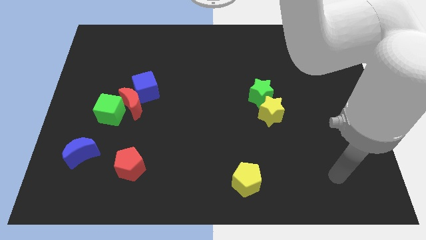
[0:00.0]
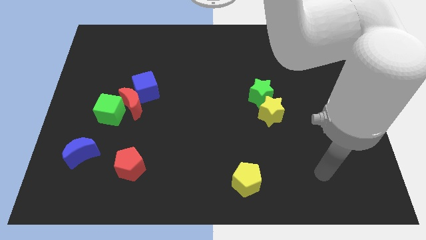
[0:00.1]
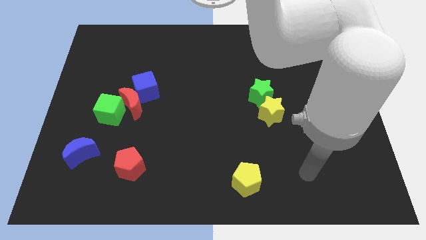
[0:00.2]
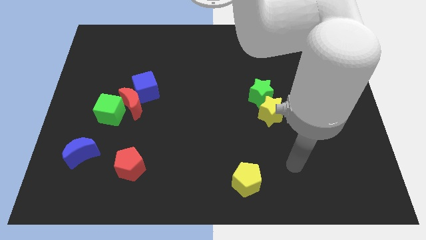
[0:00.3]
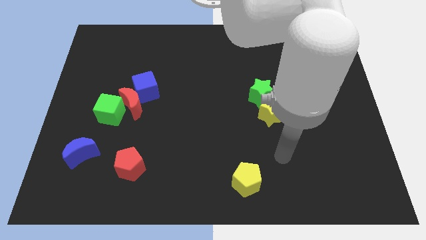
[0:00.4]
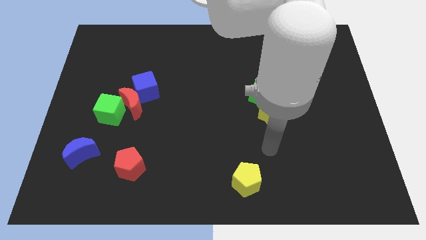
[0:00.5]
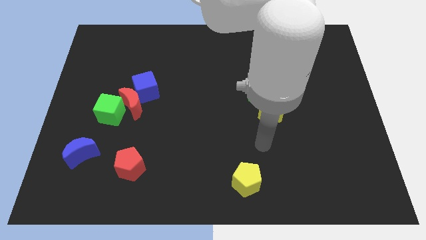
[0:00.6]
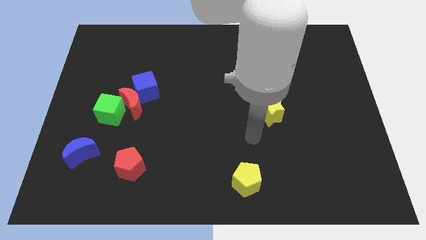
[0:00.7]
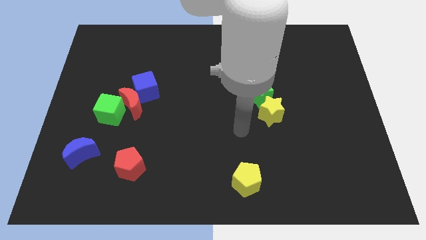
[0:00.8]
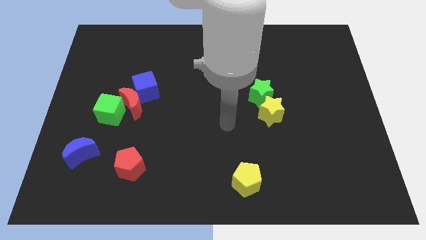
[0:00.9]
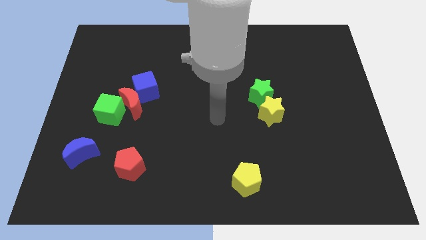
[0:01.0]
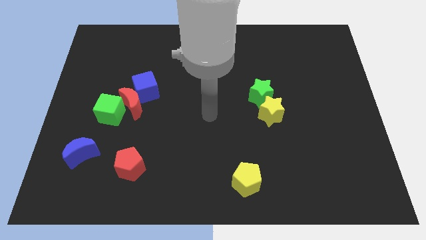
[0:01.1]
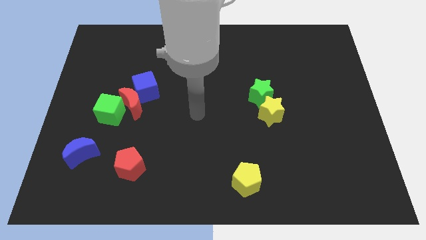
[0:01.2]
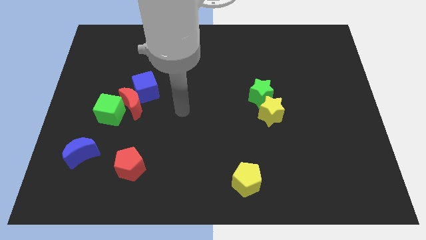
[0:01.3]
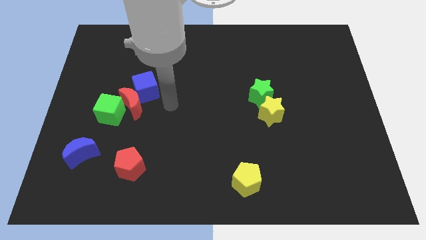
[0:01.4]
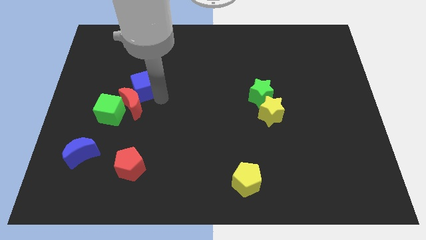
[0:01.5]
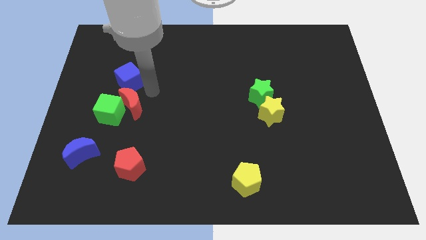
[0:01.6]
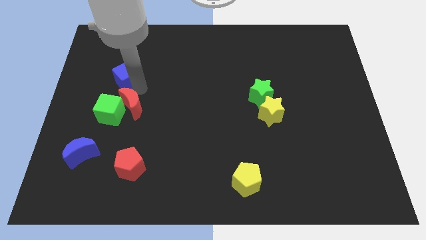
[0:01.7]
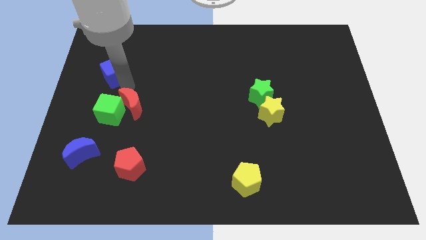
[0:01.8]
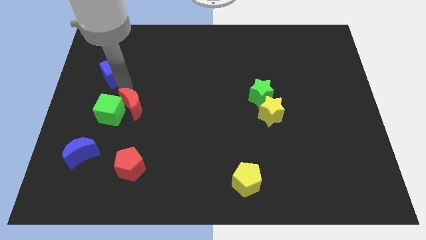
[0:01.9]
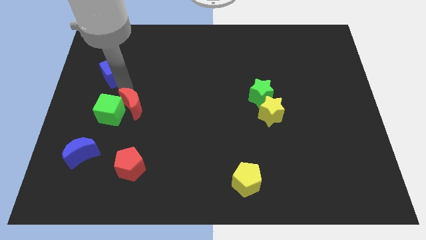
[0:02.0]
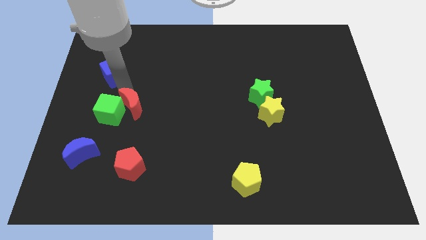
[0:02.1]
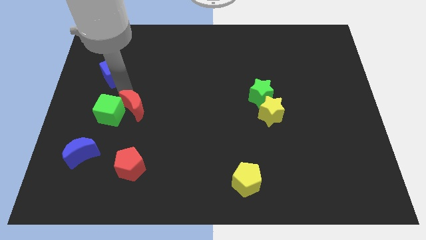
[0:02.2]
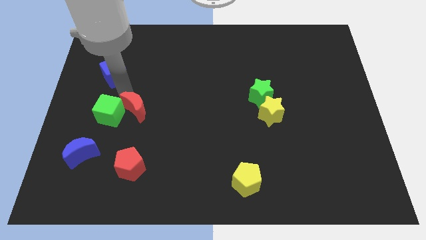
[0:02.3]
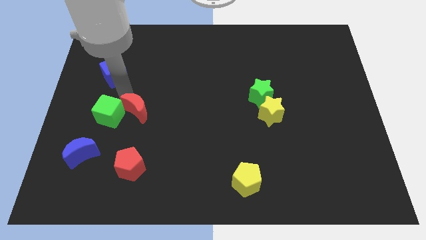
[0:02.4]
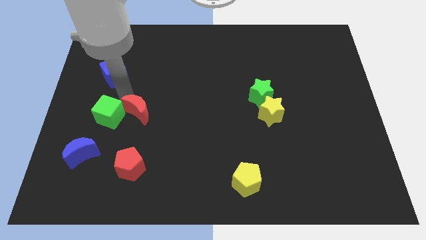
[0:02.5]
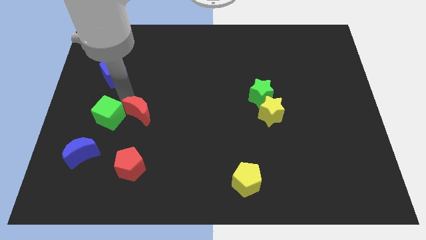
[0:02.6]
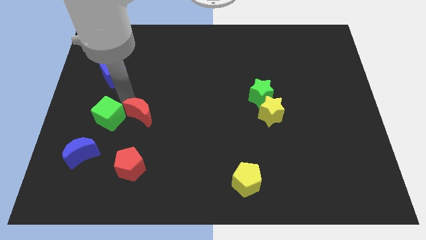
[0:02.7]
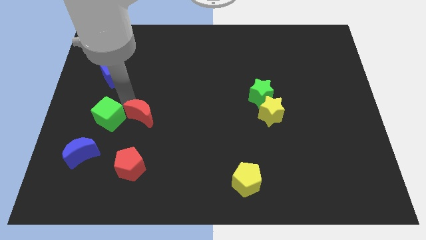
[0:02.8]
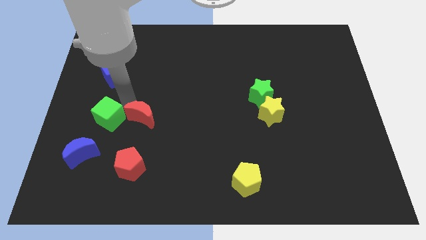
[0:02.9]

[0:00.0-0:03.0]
move the red moon away from the blue cube and green cube

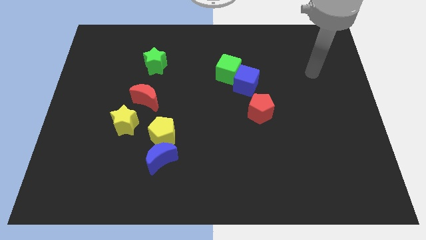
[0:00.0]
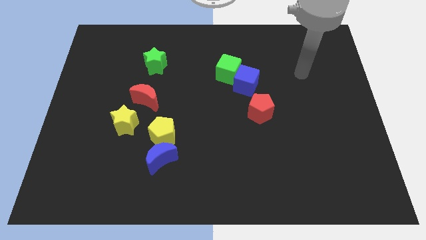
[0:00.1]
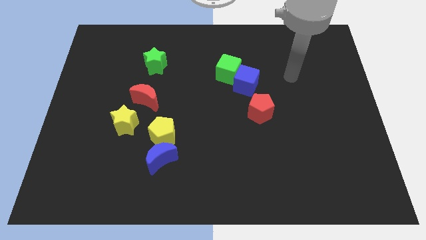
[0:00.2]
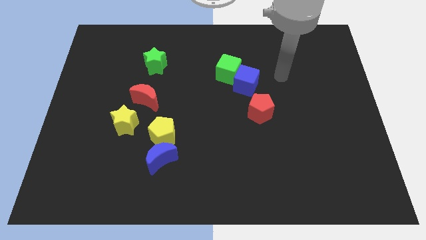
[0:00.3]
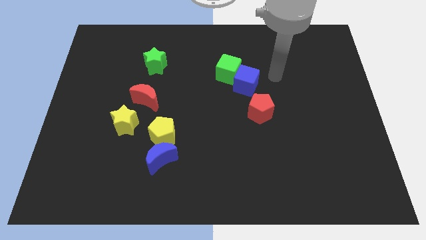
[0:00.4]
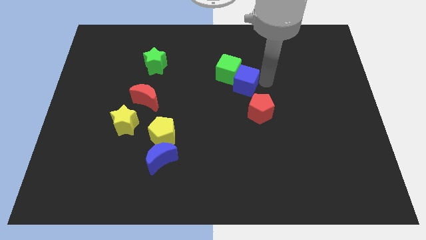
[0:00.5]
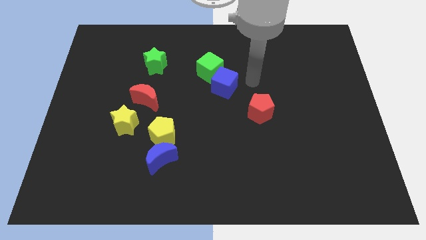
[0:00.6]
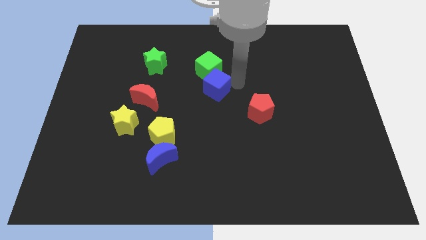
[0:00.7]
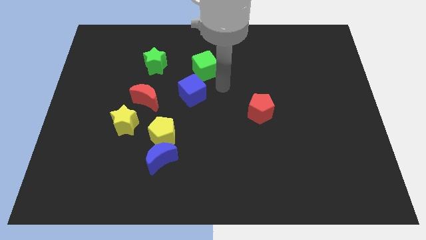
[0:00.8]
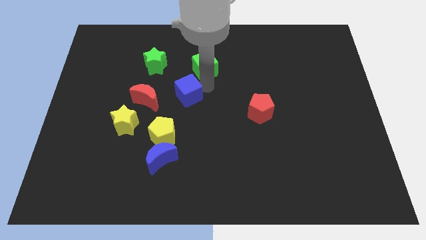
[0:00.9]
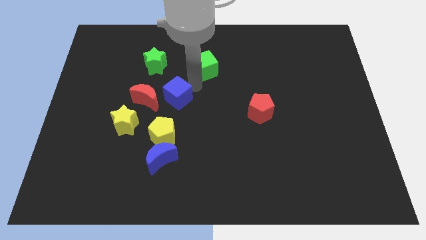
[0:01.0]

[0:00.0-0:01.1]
separate the green cube from the blue cube

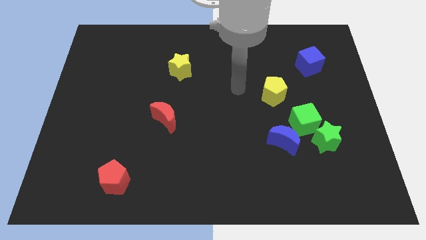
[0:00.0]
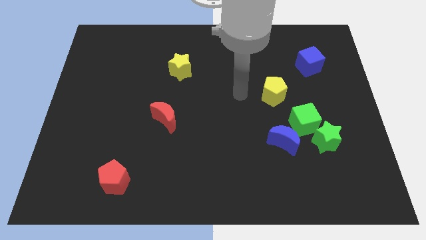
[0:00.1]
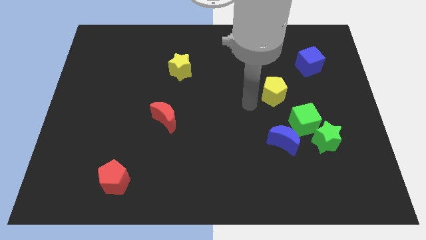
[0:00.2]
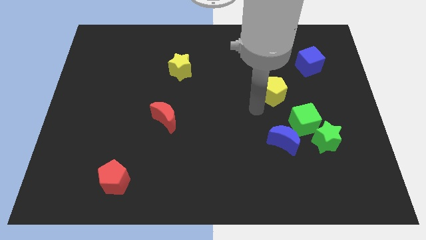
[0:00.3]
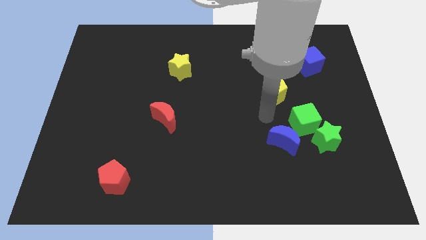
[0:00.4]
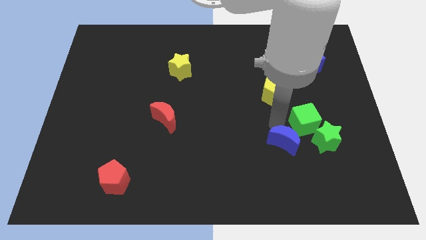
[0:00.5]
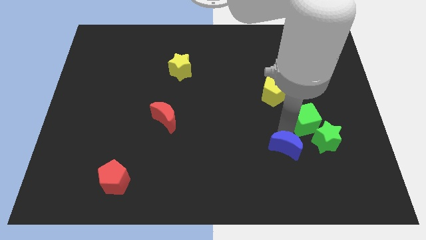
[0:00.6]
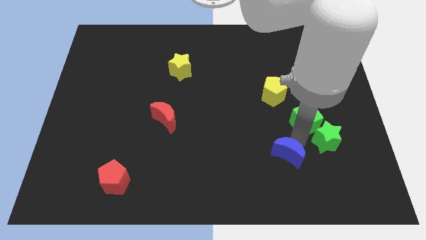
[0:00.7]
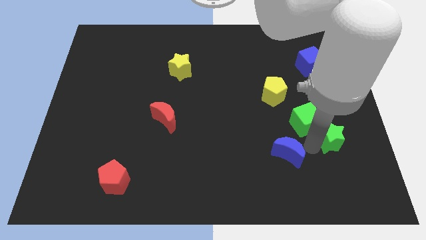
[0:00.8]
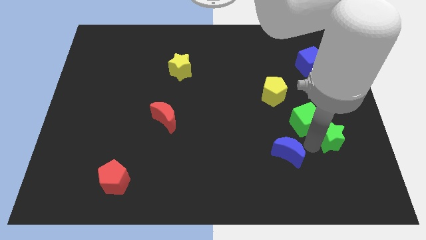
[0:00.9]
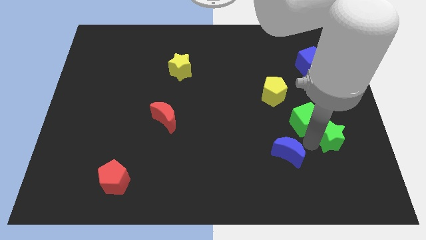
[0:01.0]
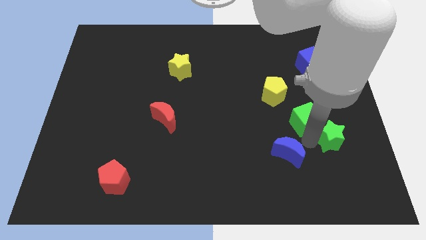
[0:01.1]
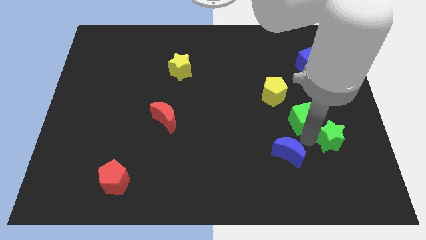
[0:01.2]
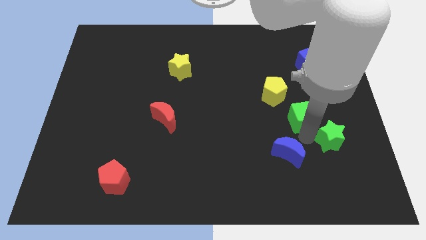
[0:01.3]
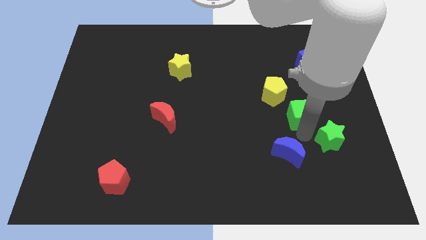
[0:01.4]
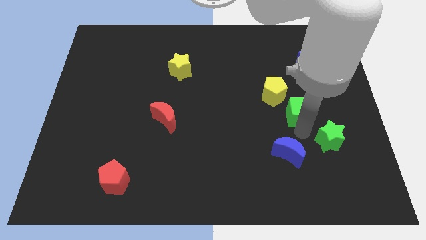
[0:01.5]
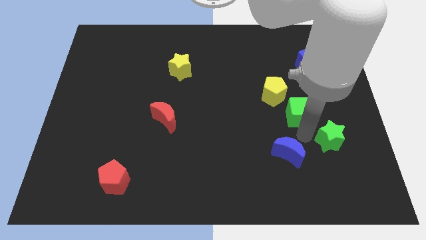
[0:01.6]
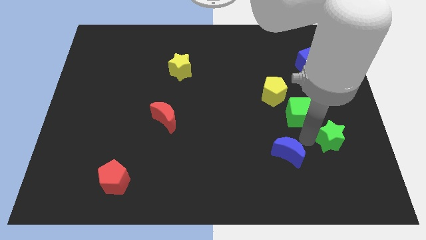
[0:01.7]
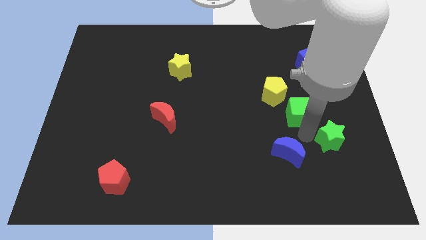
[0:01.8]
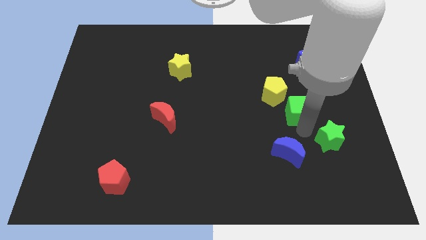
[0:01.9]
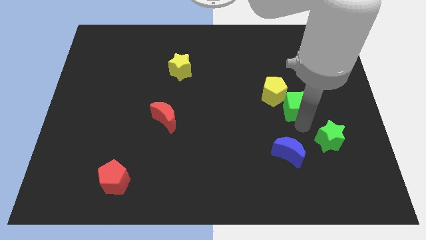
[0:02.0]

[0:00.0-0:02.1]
separate the green cube from the green star and blue moon

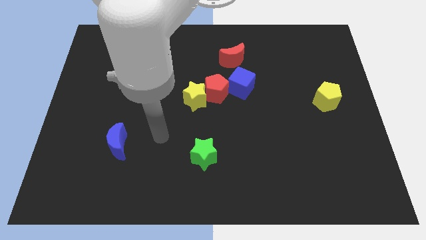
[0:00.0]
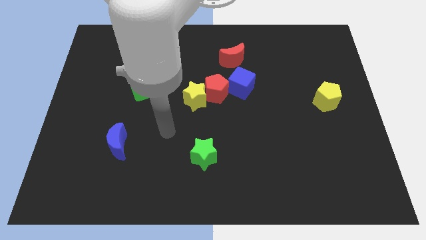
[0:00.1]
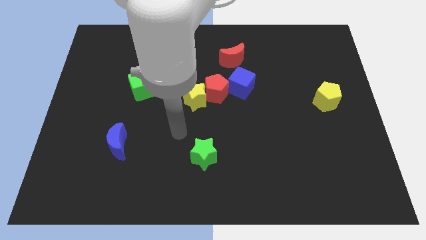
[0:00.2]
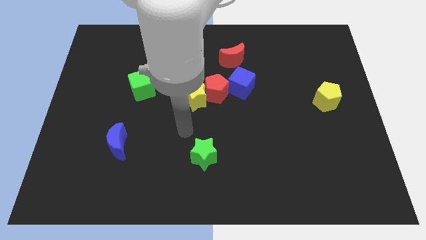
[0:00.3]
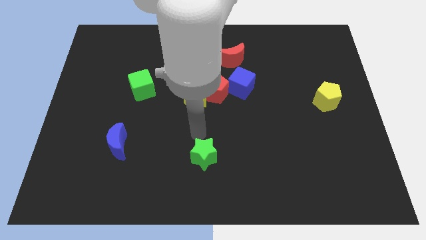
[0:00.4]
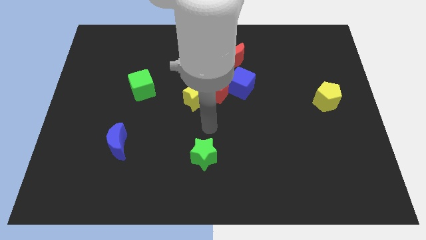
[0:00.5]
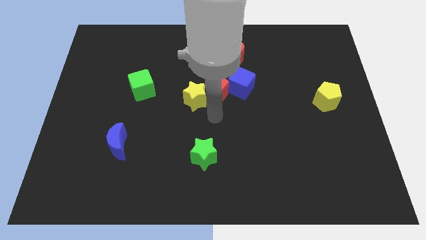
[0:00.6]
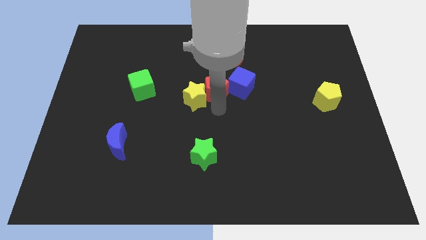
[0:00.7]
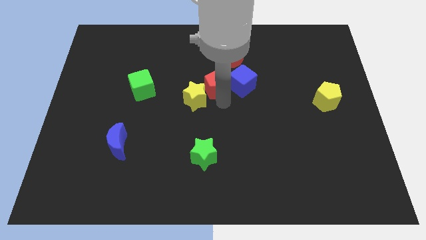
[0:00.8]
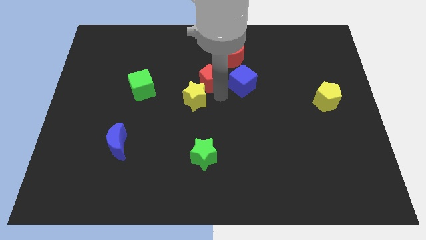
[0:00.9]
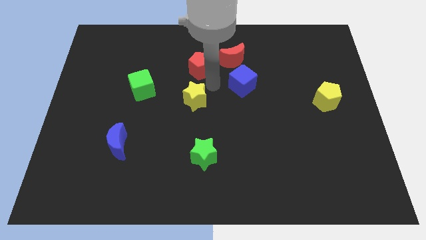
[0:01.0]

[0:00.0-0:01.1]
separate the yellow star from the red pentagon

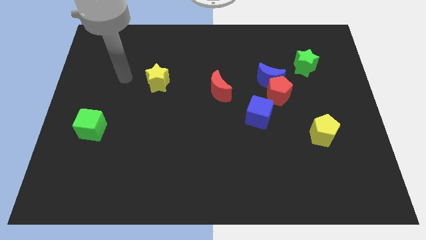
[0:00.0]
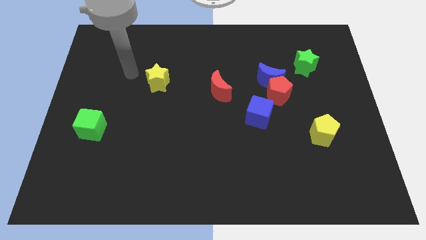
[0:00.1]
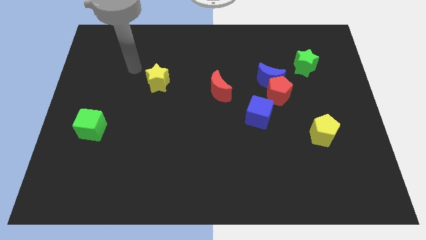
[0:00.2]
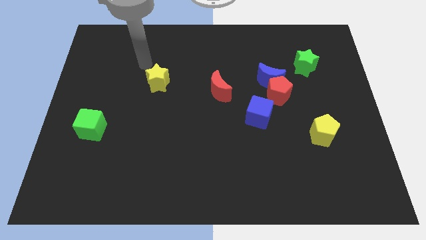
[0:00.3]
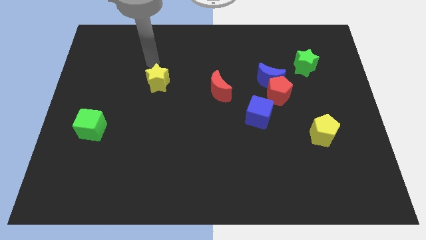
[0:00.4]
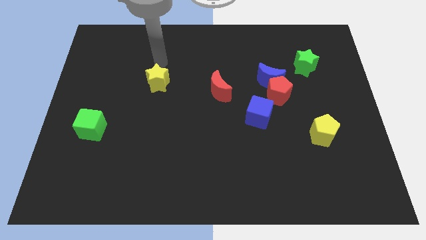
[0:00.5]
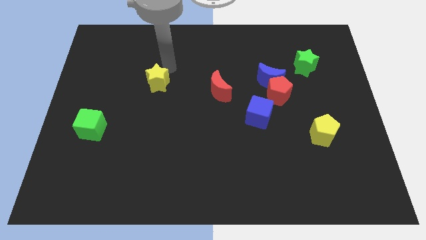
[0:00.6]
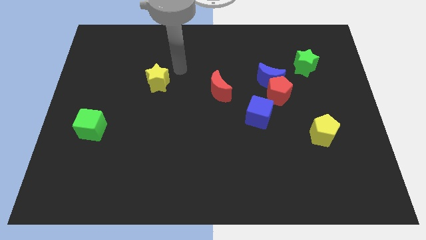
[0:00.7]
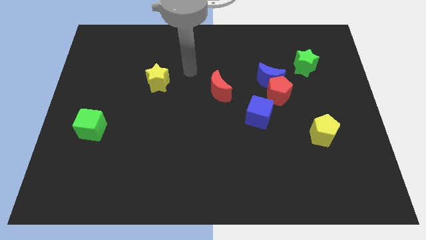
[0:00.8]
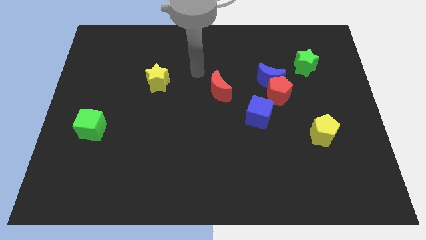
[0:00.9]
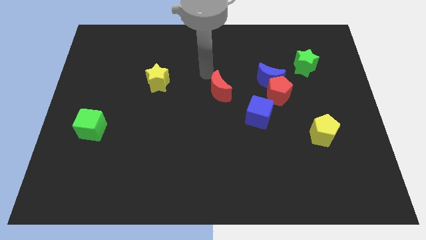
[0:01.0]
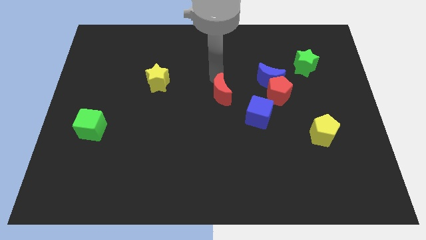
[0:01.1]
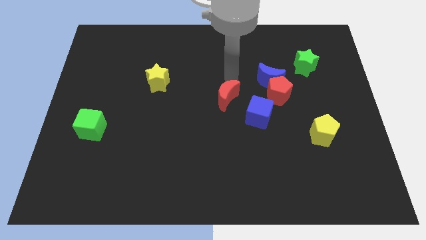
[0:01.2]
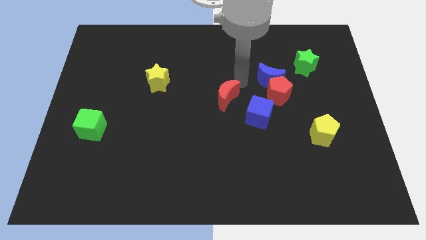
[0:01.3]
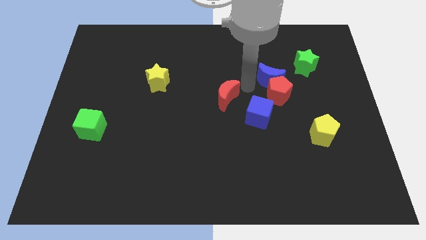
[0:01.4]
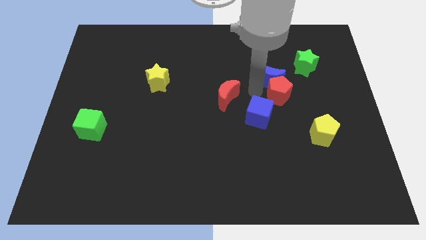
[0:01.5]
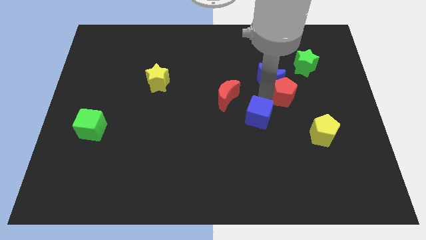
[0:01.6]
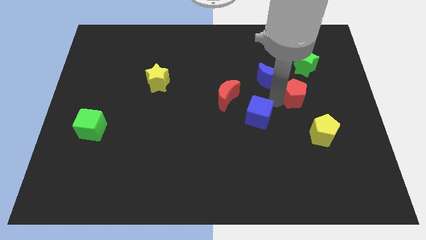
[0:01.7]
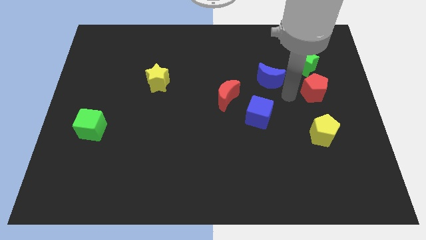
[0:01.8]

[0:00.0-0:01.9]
move the blue moon away from the red pentagon
